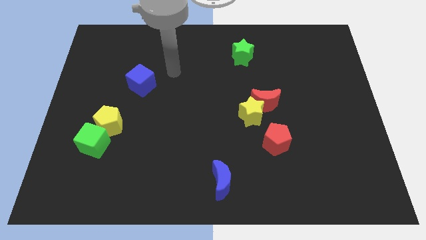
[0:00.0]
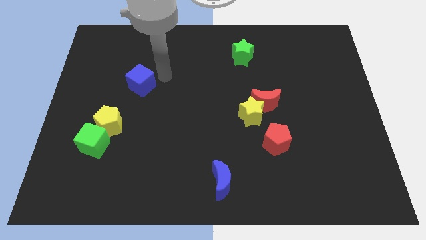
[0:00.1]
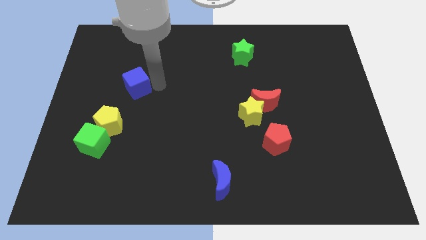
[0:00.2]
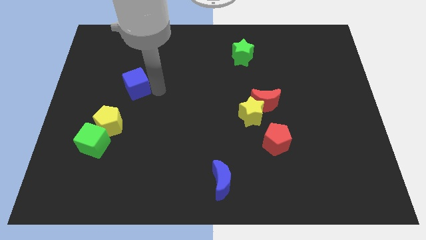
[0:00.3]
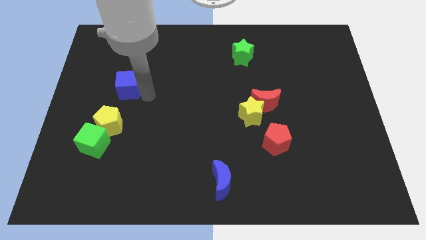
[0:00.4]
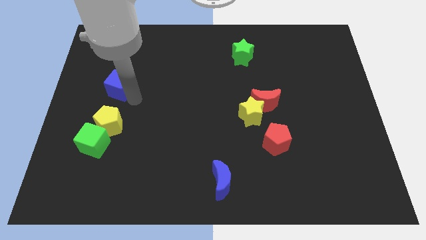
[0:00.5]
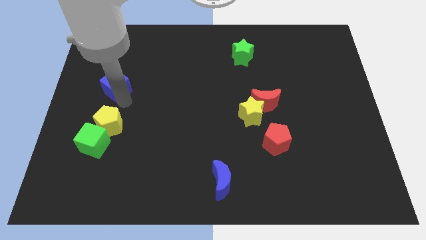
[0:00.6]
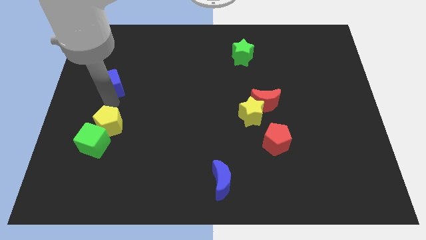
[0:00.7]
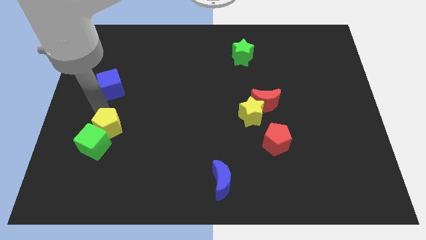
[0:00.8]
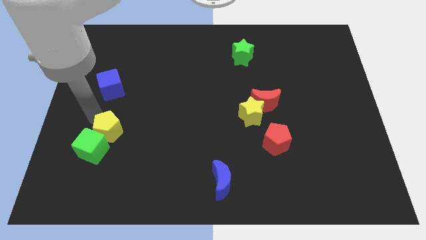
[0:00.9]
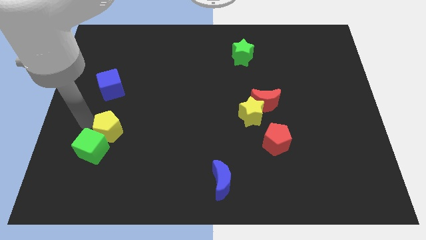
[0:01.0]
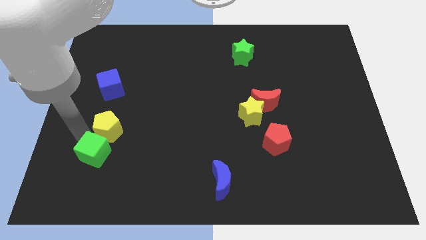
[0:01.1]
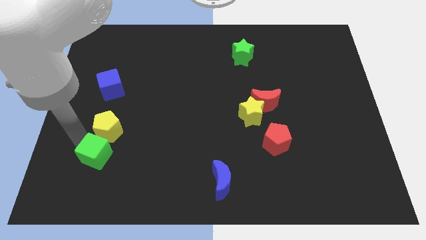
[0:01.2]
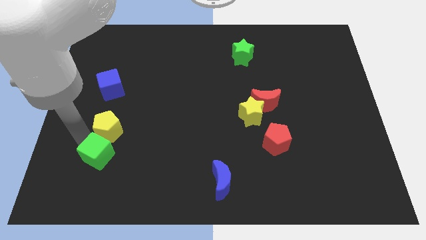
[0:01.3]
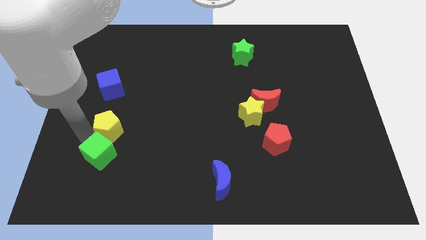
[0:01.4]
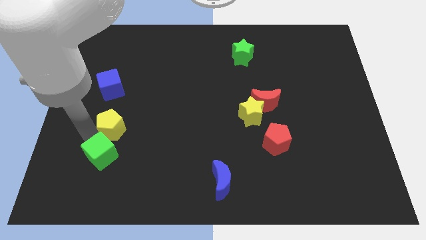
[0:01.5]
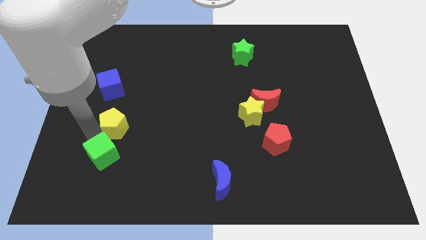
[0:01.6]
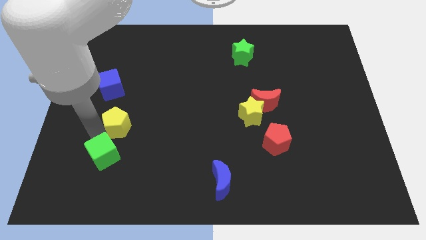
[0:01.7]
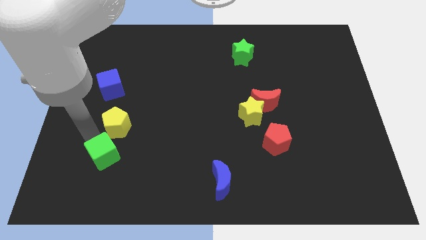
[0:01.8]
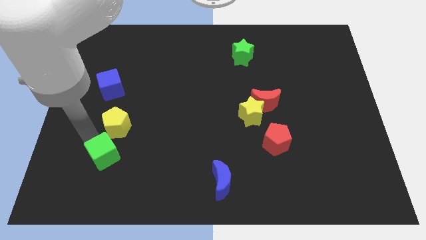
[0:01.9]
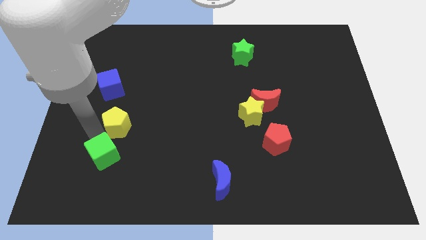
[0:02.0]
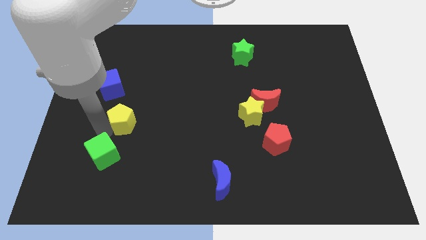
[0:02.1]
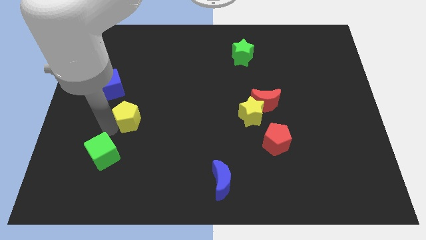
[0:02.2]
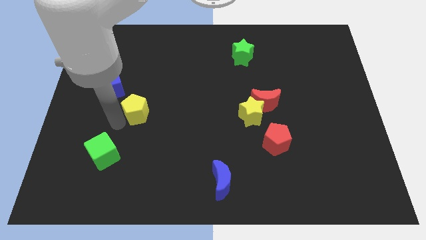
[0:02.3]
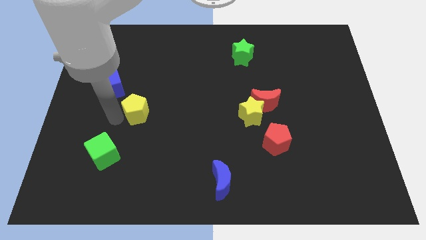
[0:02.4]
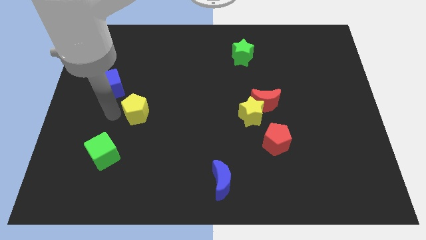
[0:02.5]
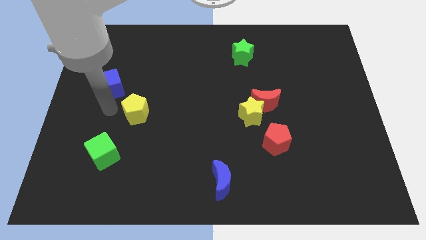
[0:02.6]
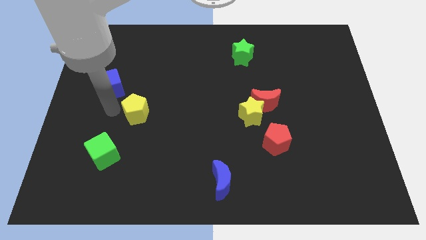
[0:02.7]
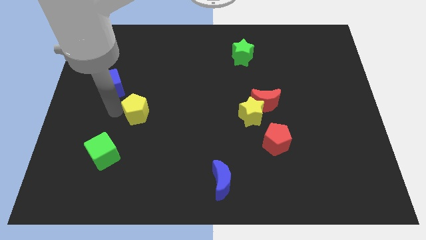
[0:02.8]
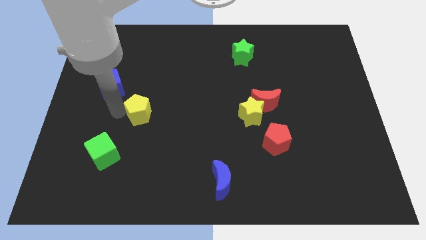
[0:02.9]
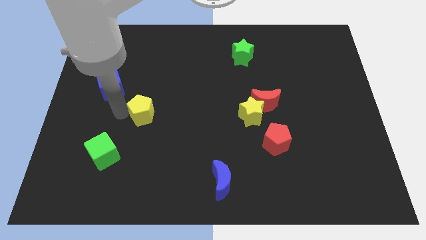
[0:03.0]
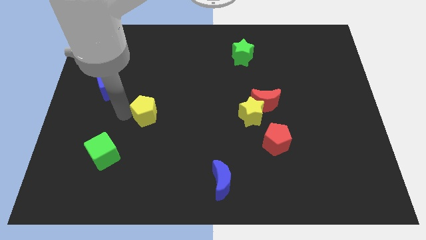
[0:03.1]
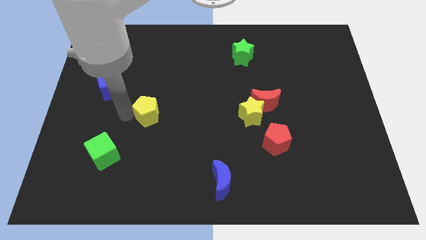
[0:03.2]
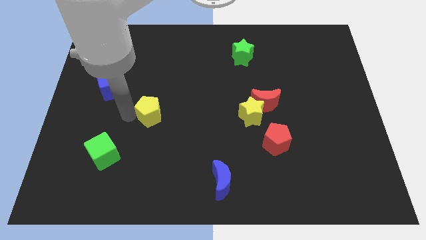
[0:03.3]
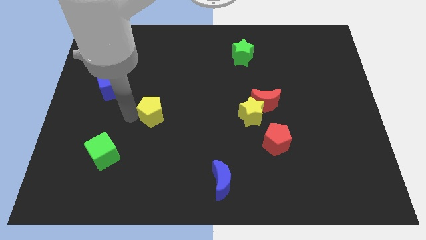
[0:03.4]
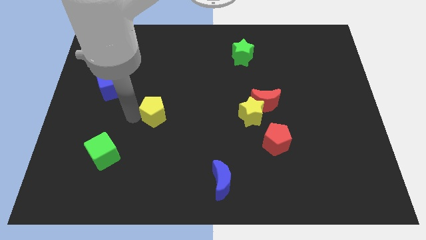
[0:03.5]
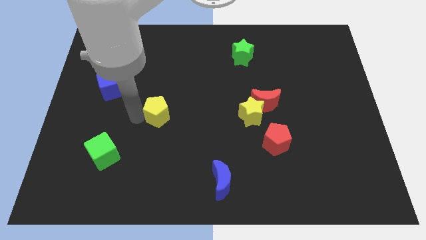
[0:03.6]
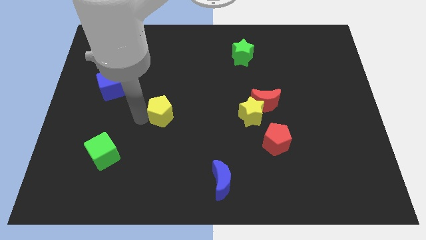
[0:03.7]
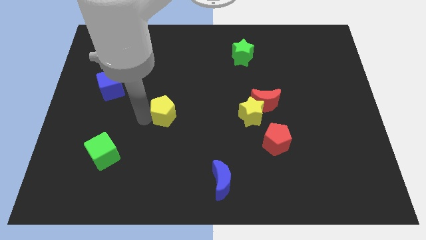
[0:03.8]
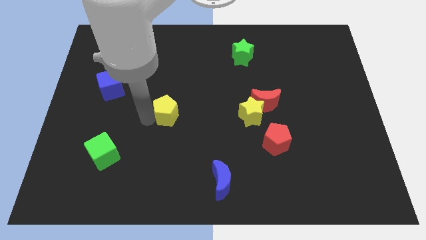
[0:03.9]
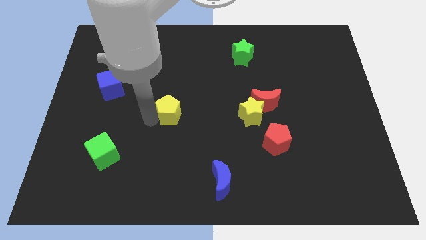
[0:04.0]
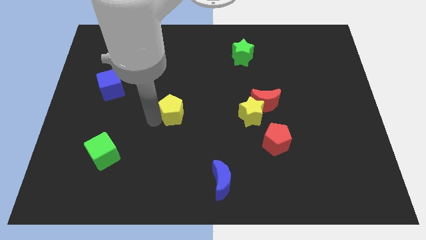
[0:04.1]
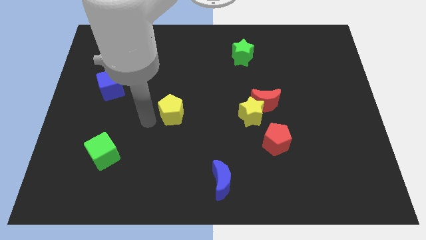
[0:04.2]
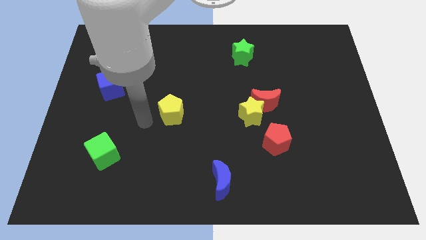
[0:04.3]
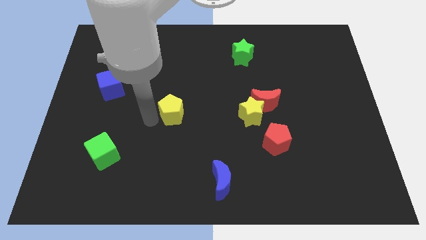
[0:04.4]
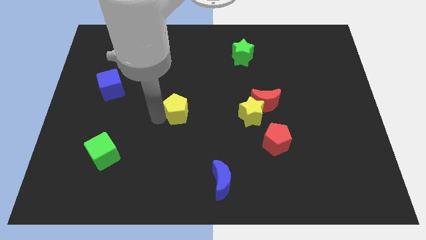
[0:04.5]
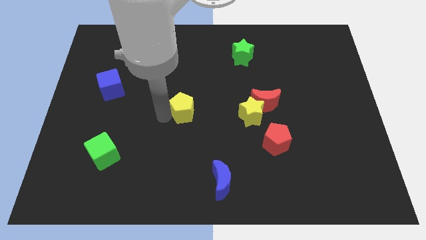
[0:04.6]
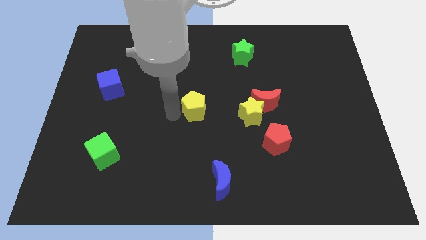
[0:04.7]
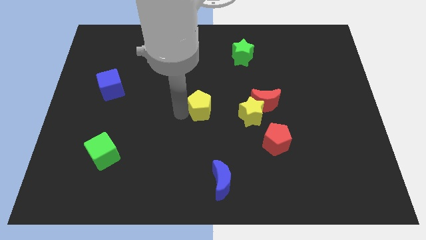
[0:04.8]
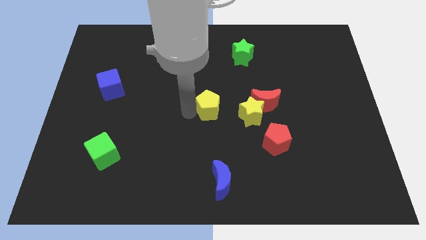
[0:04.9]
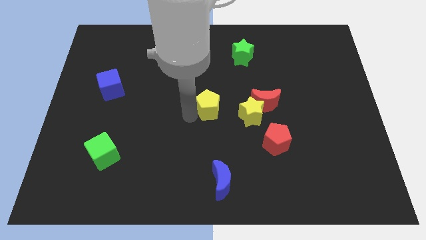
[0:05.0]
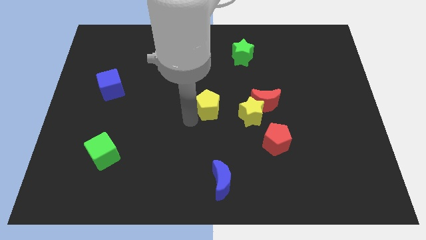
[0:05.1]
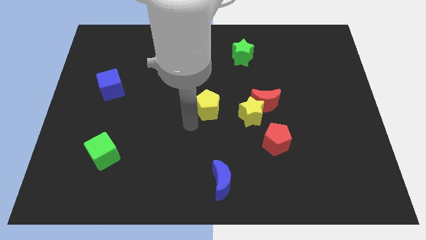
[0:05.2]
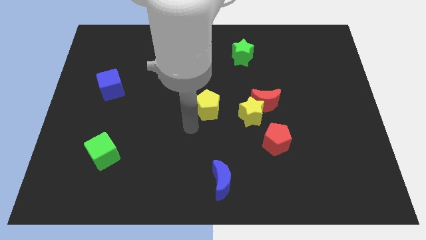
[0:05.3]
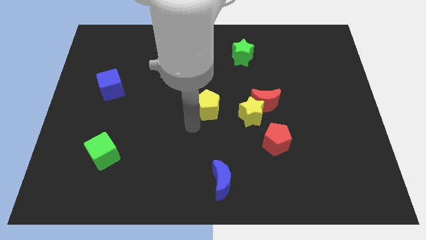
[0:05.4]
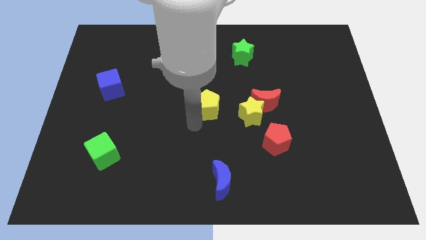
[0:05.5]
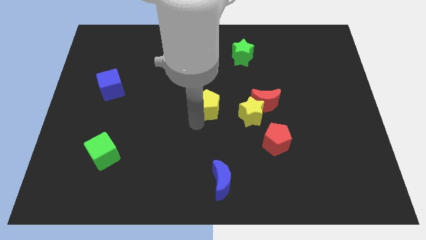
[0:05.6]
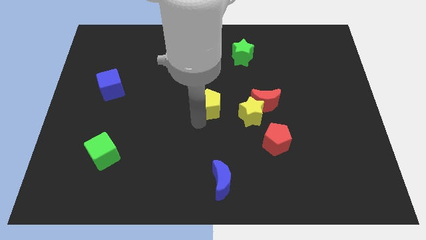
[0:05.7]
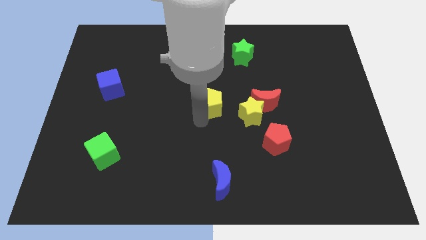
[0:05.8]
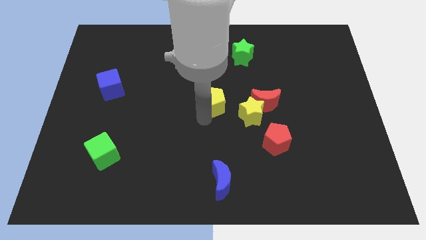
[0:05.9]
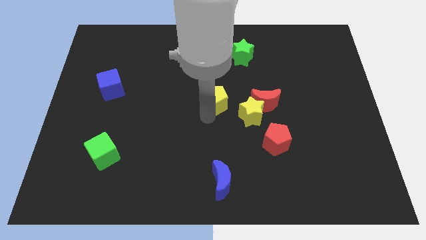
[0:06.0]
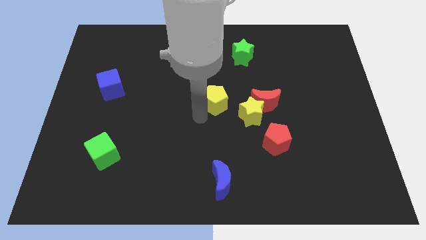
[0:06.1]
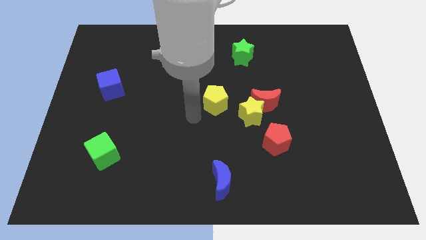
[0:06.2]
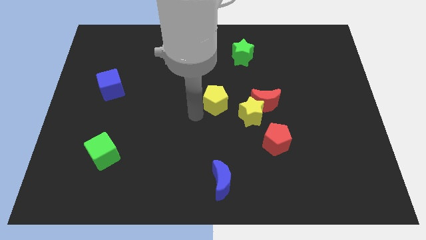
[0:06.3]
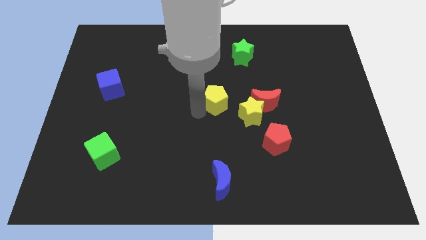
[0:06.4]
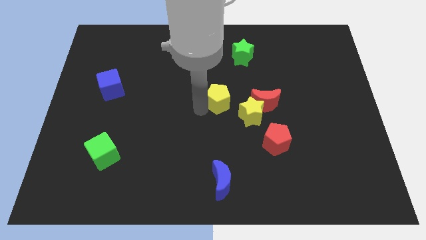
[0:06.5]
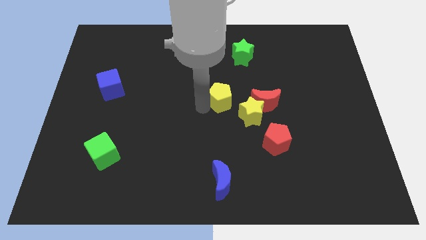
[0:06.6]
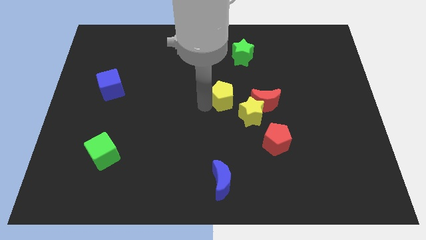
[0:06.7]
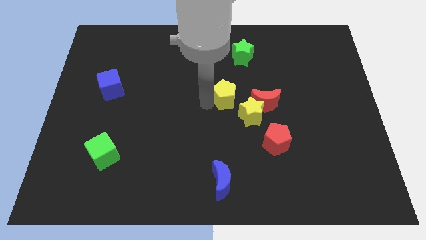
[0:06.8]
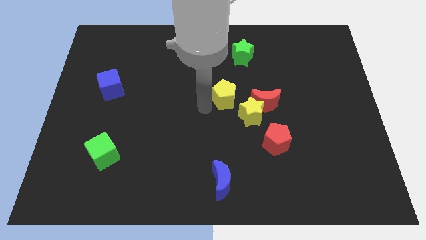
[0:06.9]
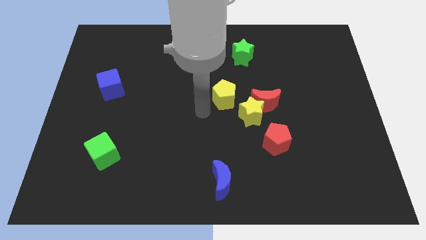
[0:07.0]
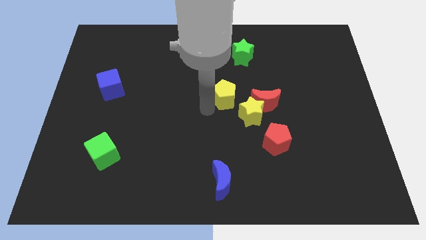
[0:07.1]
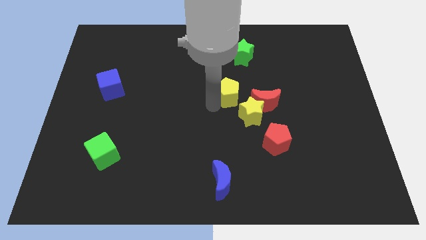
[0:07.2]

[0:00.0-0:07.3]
move the yellow pentagon to the top left side of the red moon
